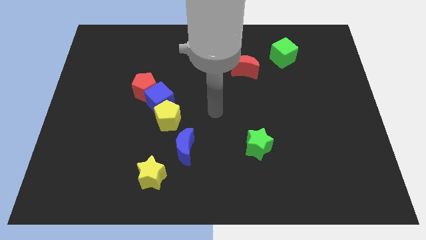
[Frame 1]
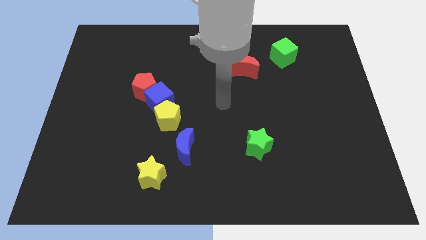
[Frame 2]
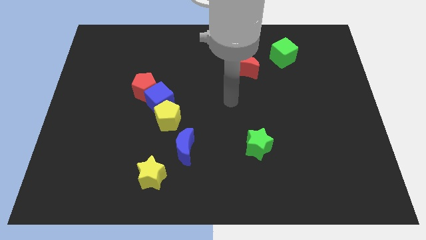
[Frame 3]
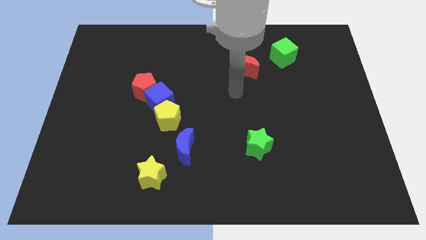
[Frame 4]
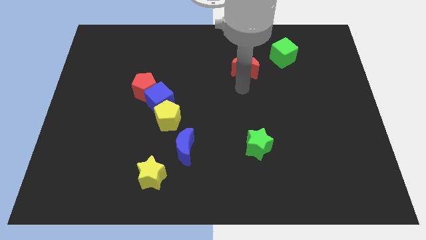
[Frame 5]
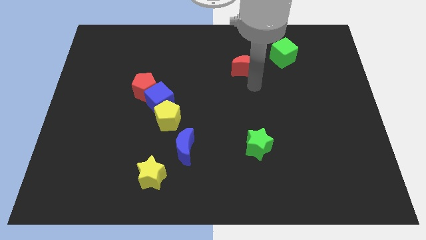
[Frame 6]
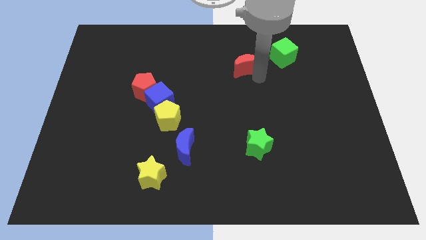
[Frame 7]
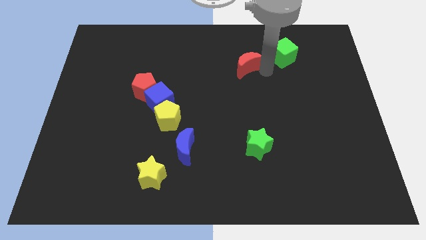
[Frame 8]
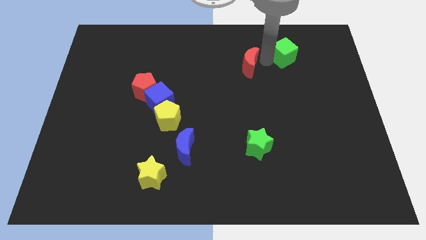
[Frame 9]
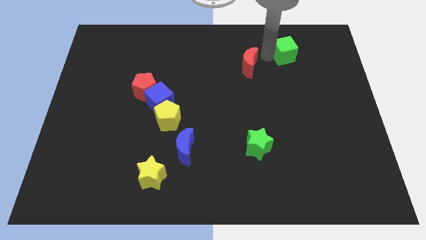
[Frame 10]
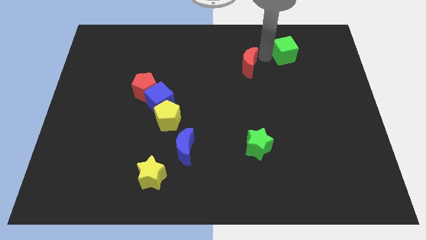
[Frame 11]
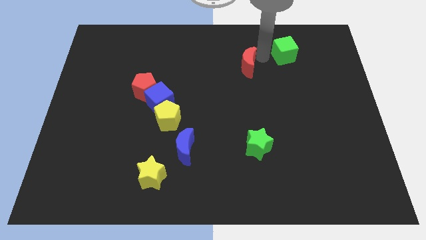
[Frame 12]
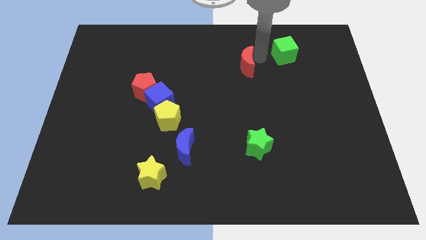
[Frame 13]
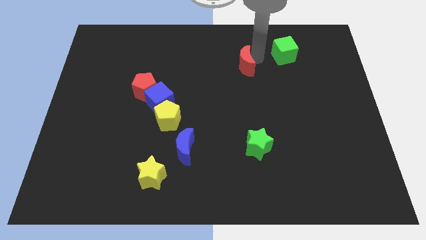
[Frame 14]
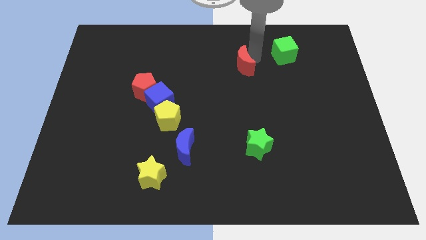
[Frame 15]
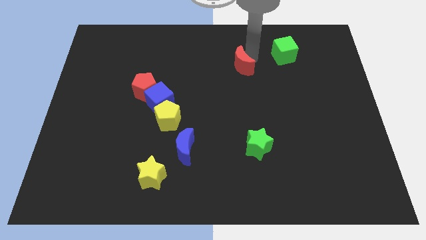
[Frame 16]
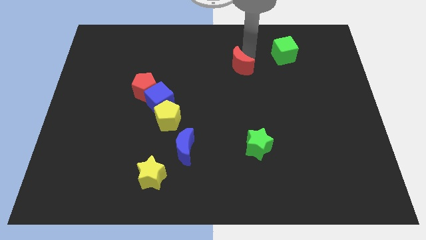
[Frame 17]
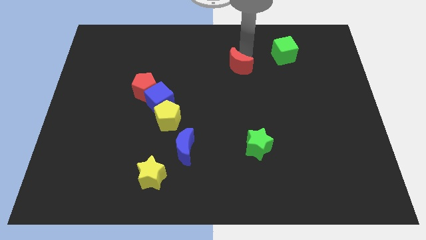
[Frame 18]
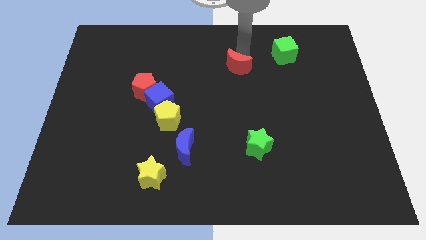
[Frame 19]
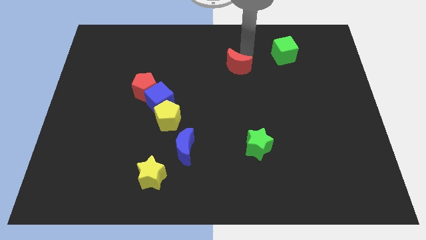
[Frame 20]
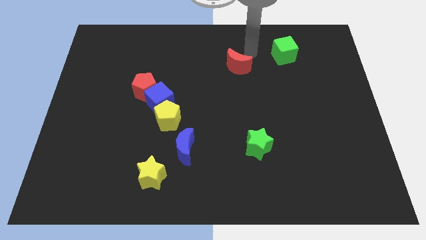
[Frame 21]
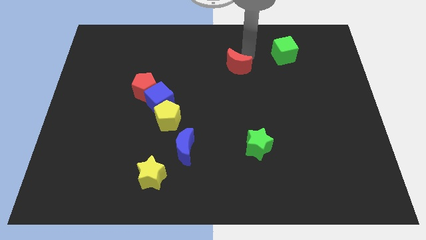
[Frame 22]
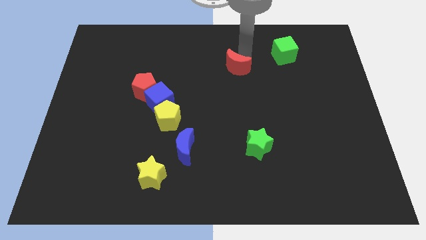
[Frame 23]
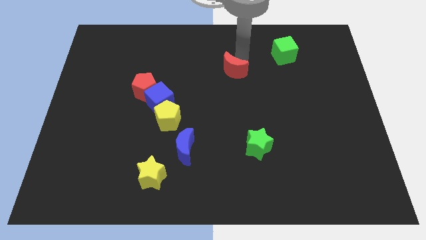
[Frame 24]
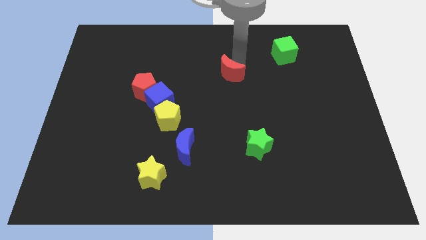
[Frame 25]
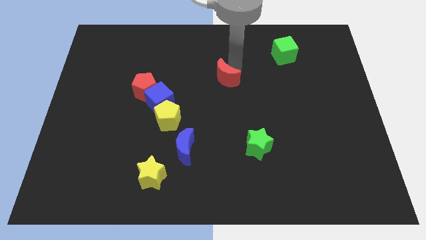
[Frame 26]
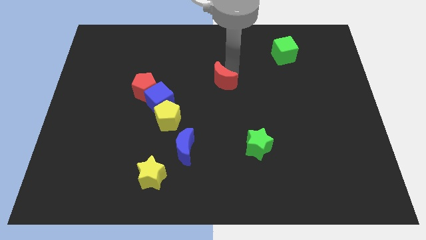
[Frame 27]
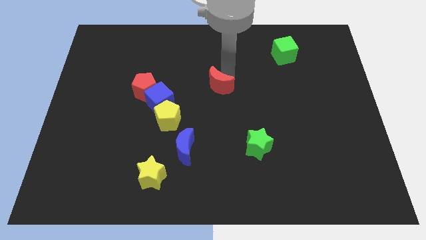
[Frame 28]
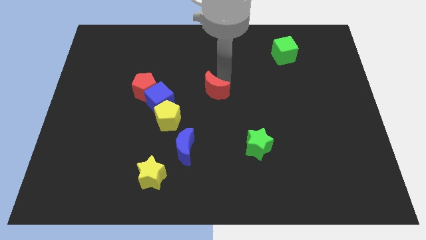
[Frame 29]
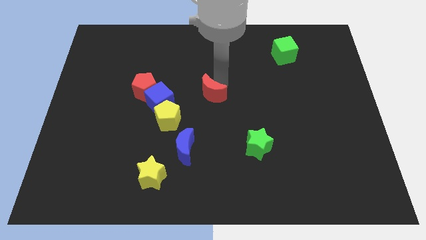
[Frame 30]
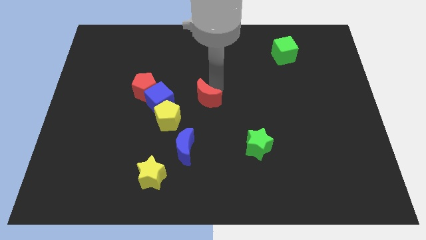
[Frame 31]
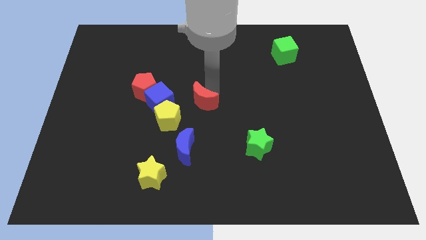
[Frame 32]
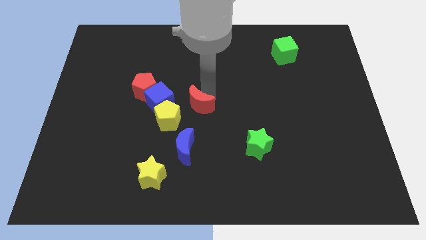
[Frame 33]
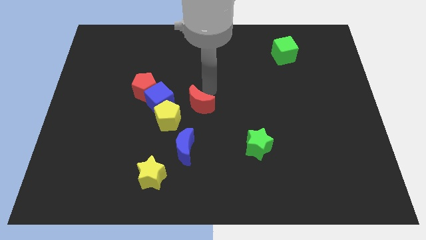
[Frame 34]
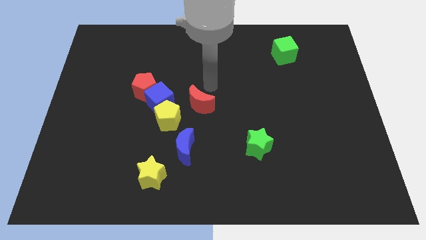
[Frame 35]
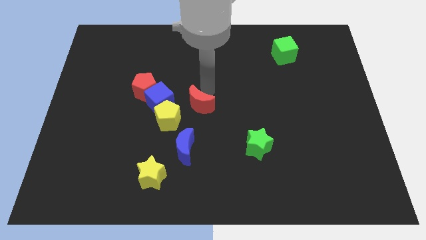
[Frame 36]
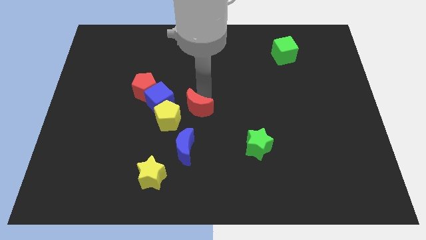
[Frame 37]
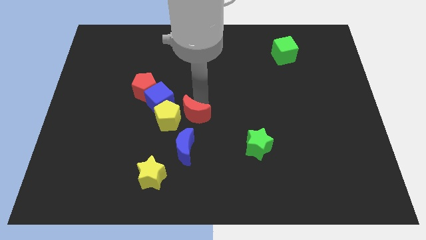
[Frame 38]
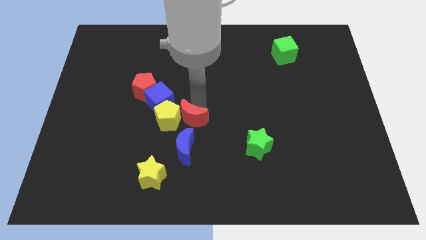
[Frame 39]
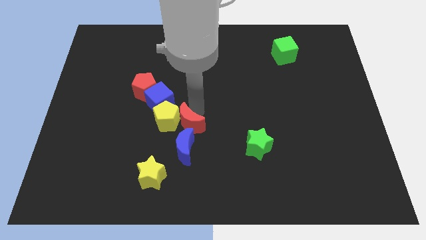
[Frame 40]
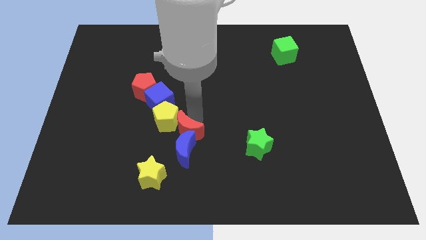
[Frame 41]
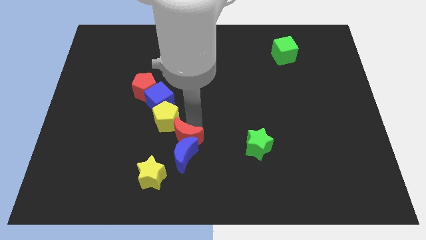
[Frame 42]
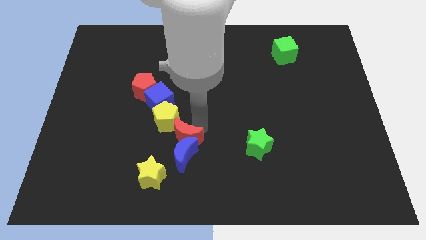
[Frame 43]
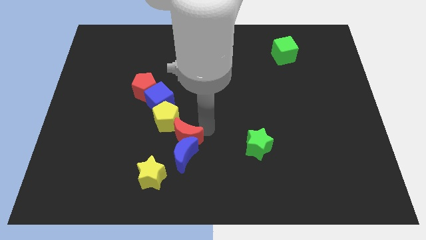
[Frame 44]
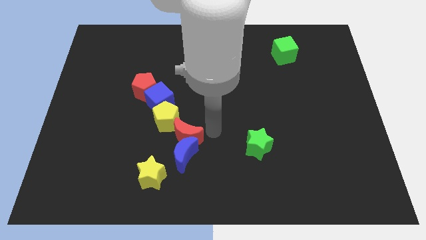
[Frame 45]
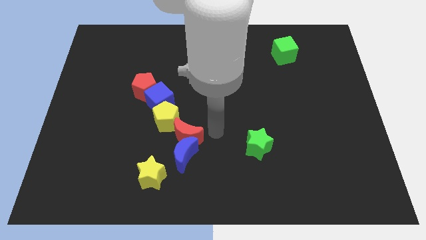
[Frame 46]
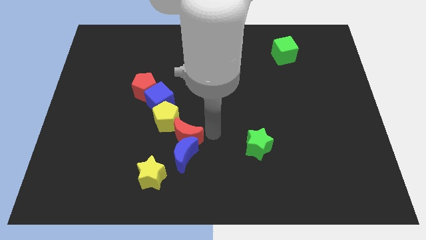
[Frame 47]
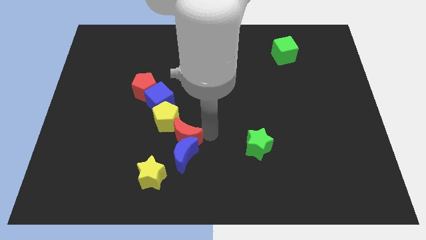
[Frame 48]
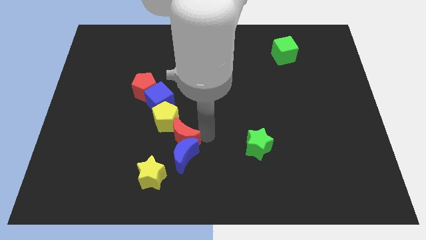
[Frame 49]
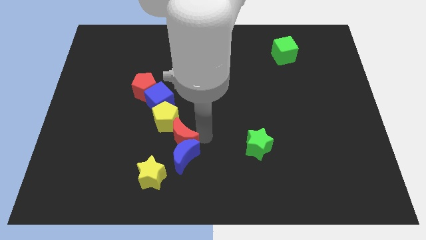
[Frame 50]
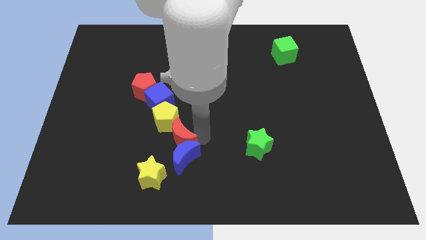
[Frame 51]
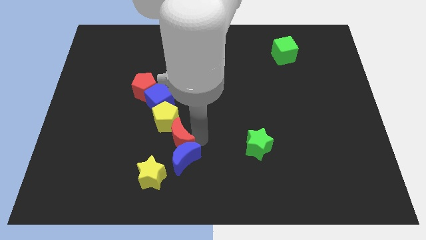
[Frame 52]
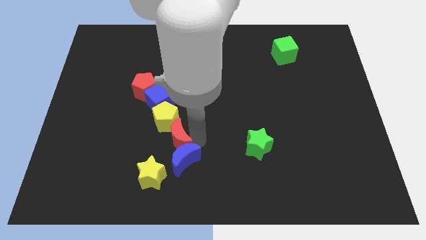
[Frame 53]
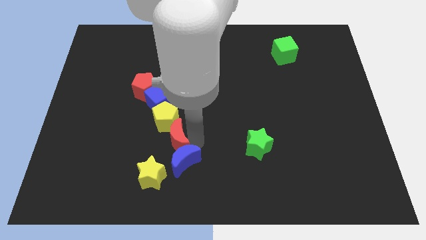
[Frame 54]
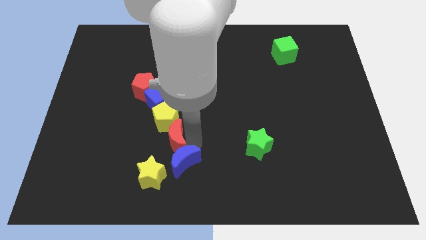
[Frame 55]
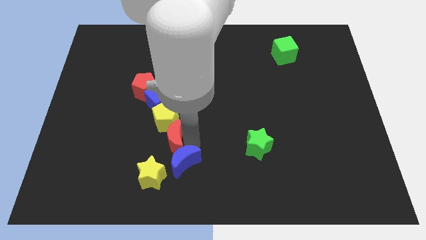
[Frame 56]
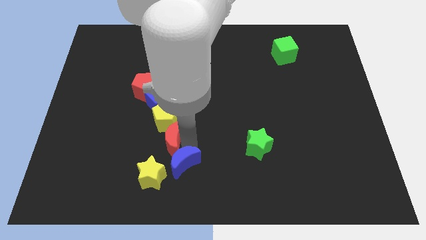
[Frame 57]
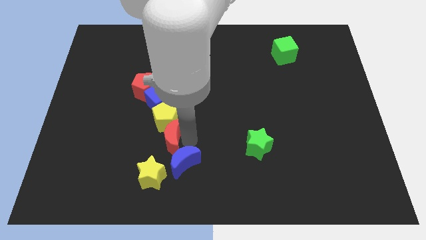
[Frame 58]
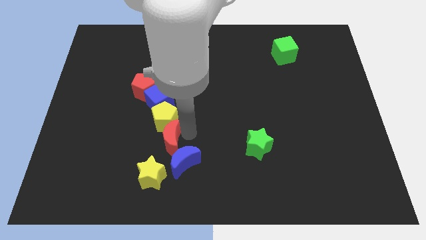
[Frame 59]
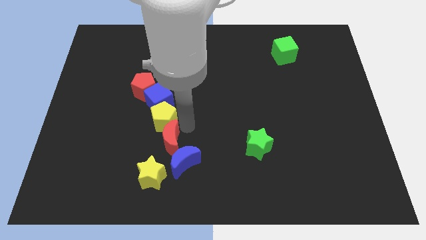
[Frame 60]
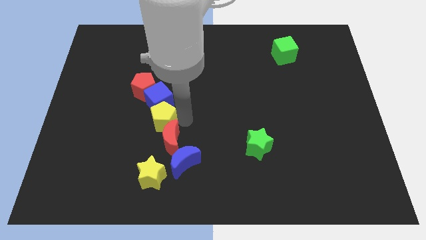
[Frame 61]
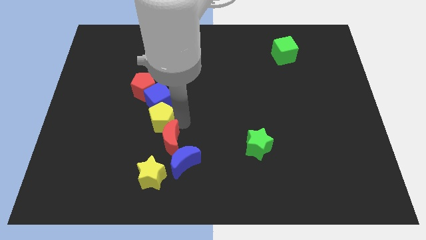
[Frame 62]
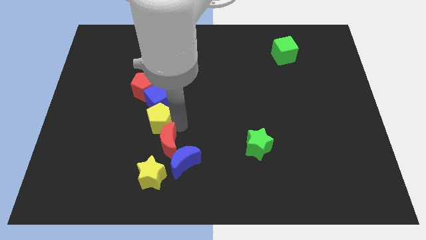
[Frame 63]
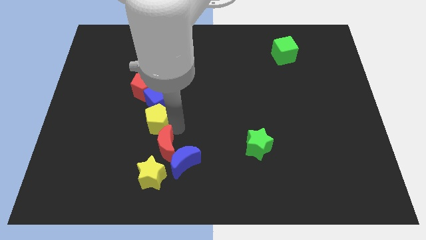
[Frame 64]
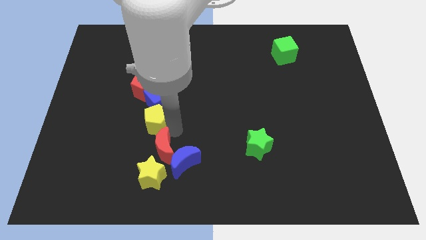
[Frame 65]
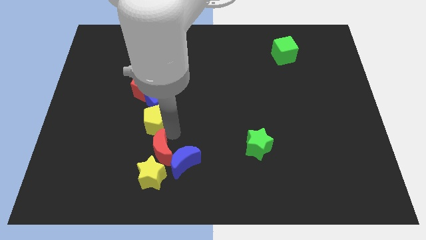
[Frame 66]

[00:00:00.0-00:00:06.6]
move the red moon towards the yellow star

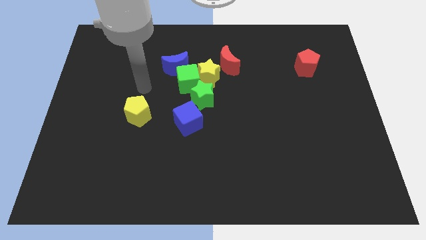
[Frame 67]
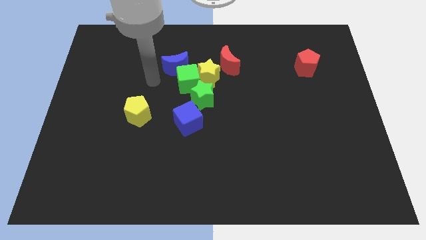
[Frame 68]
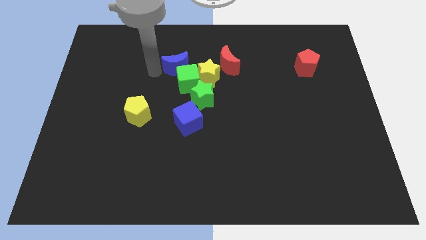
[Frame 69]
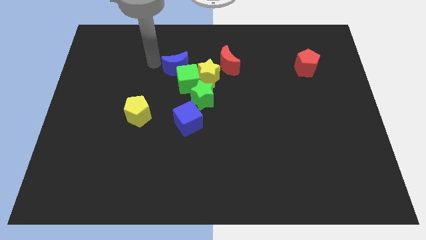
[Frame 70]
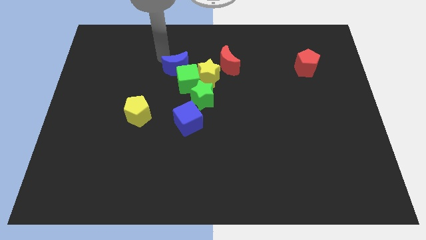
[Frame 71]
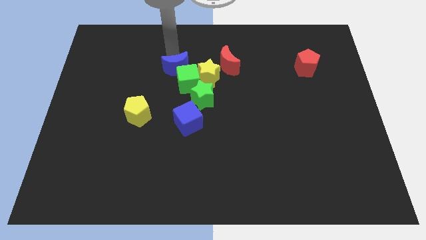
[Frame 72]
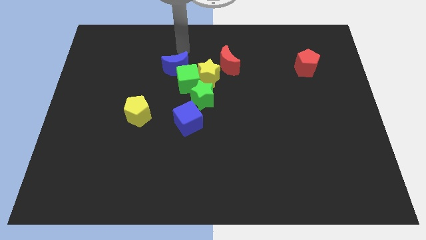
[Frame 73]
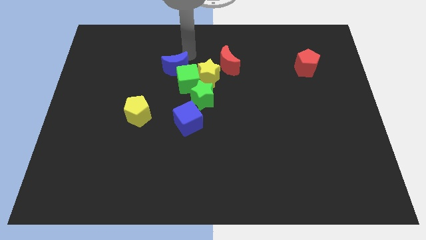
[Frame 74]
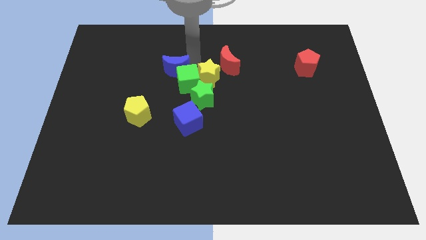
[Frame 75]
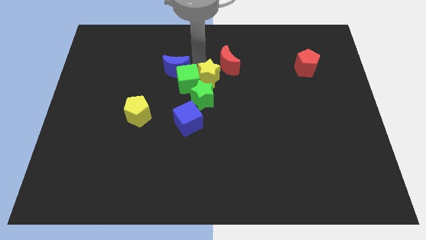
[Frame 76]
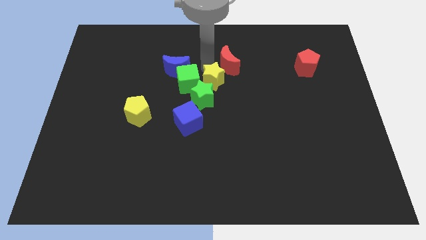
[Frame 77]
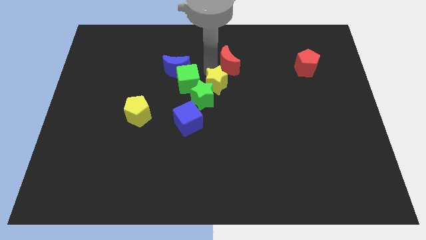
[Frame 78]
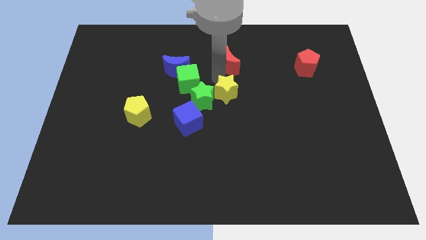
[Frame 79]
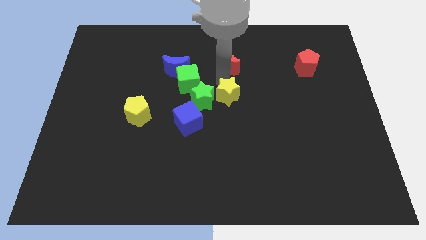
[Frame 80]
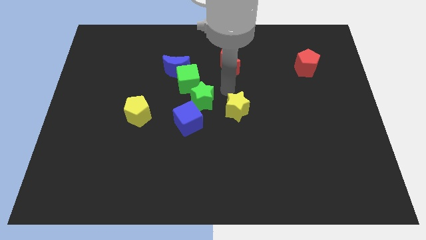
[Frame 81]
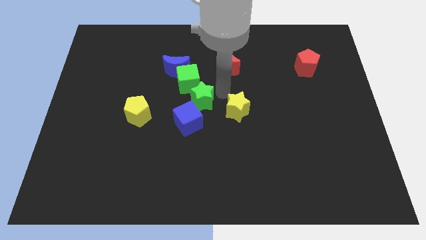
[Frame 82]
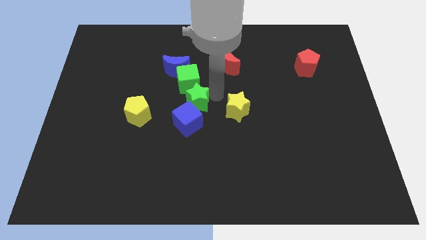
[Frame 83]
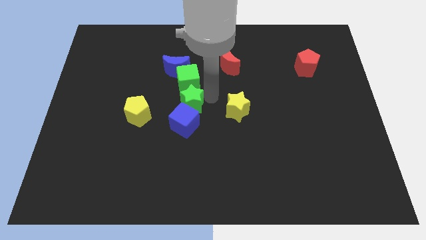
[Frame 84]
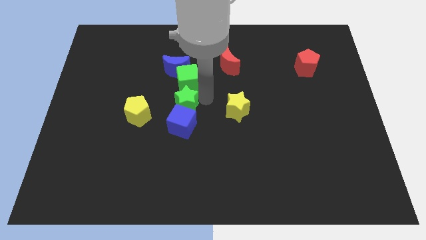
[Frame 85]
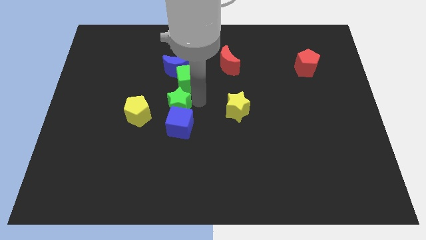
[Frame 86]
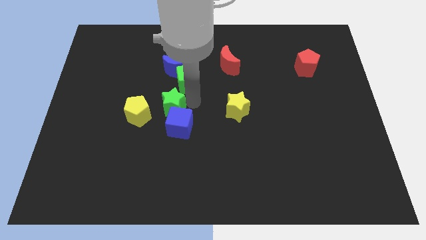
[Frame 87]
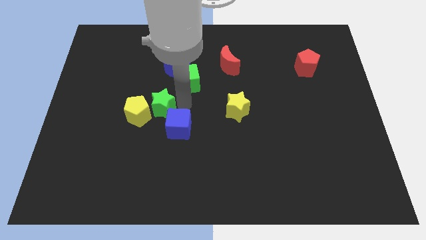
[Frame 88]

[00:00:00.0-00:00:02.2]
push the green star to the yellow pentagon
